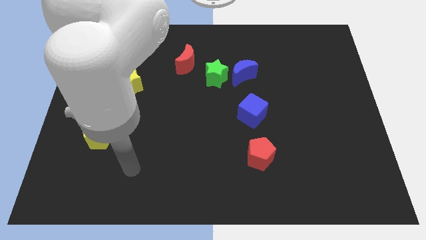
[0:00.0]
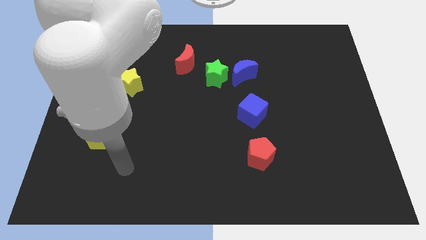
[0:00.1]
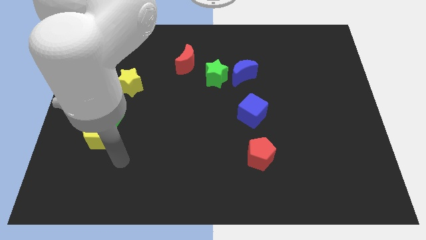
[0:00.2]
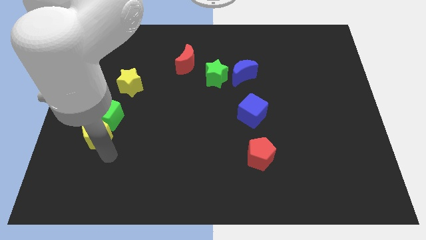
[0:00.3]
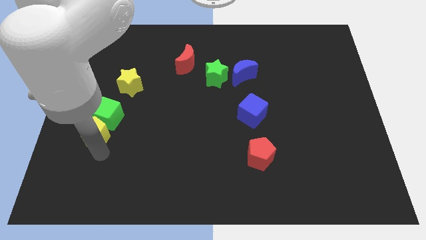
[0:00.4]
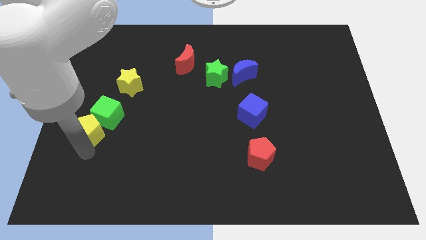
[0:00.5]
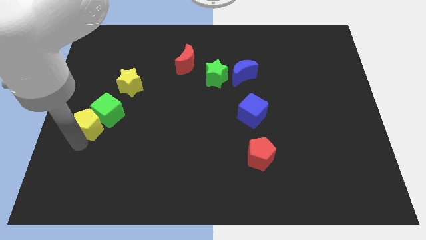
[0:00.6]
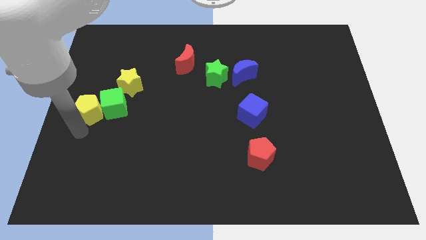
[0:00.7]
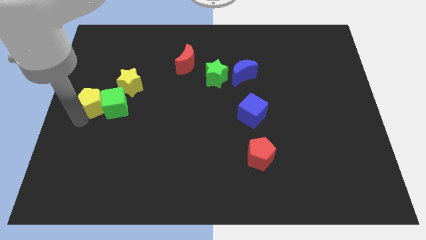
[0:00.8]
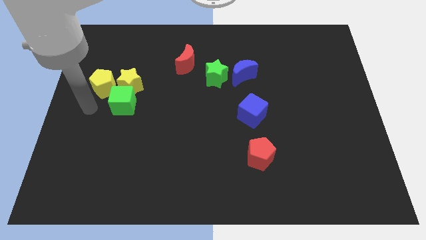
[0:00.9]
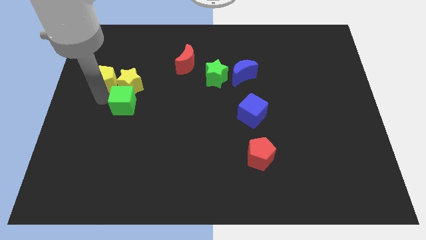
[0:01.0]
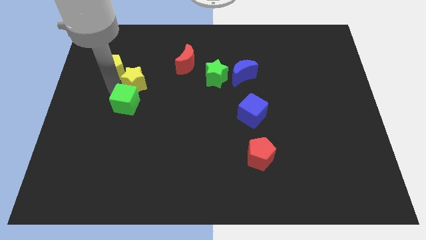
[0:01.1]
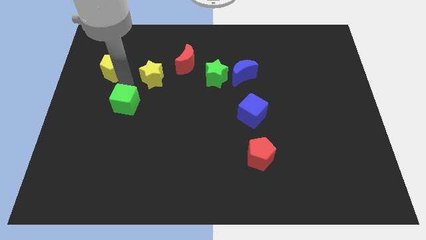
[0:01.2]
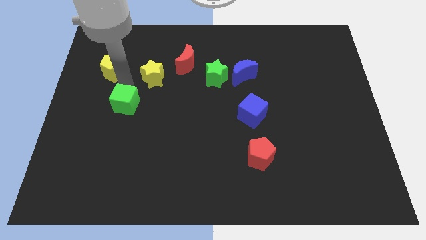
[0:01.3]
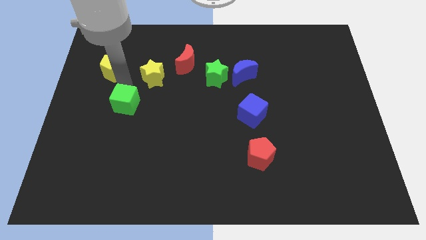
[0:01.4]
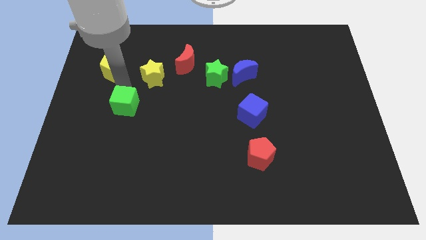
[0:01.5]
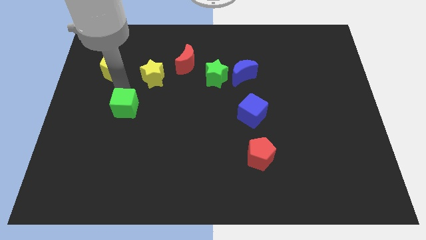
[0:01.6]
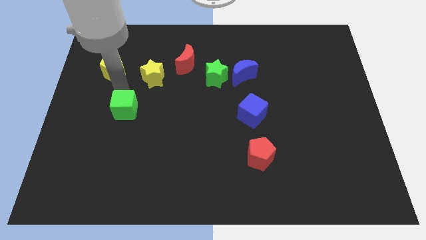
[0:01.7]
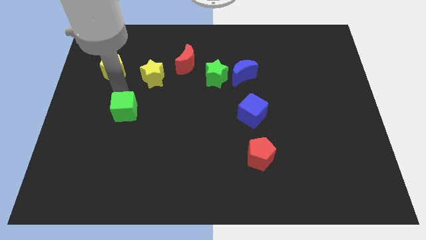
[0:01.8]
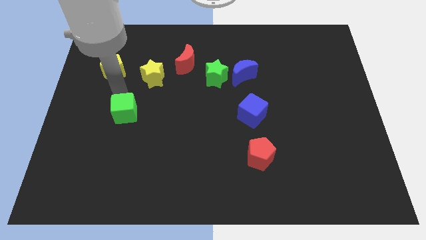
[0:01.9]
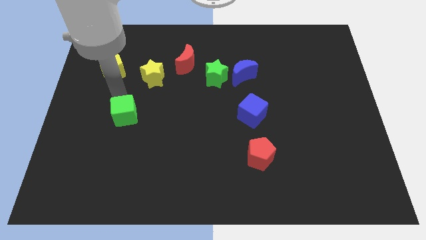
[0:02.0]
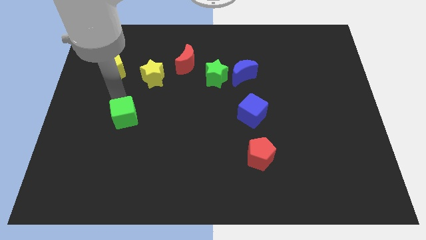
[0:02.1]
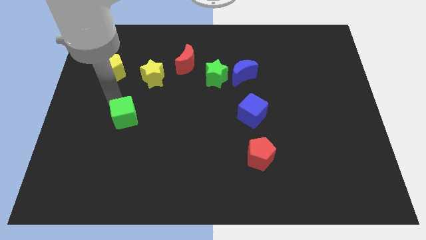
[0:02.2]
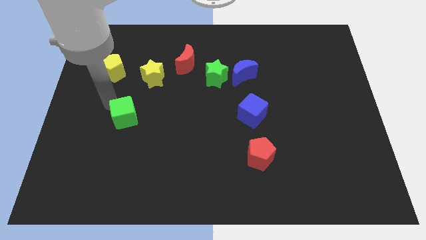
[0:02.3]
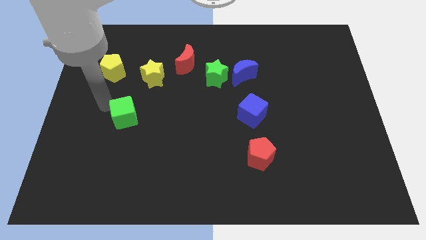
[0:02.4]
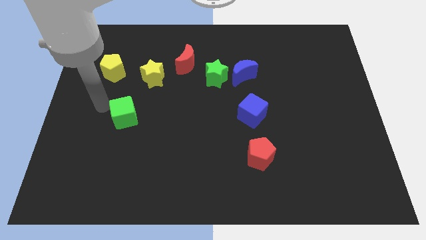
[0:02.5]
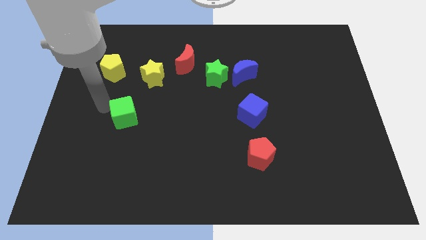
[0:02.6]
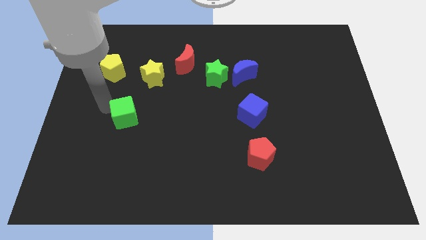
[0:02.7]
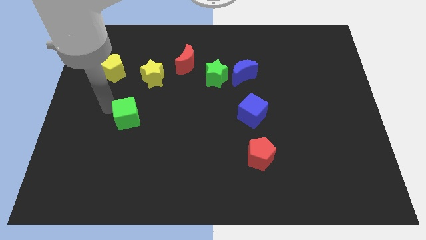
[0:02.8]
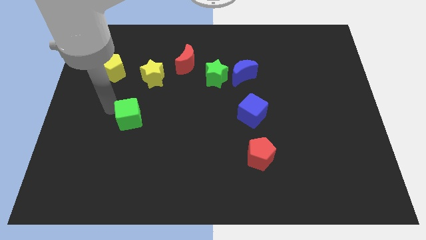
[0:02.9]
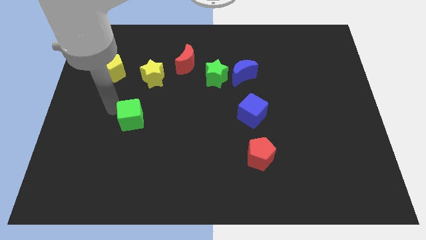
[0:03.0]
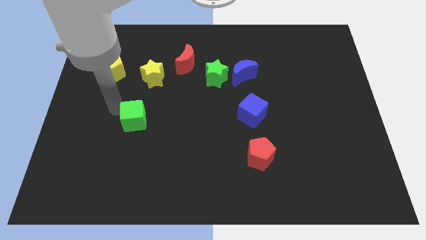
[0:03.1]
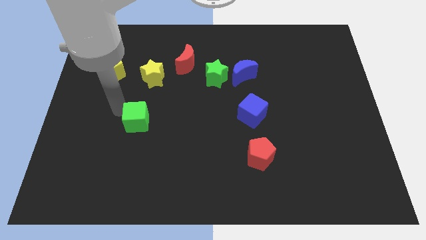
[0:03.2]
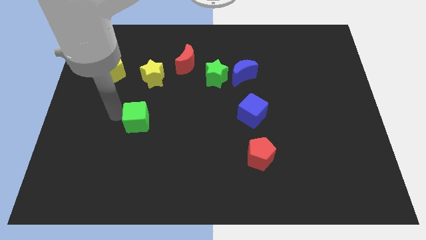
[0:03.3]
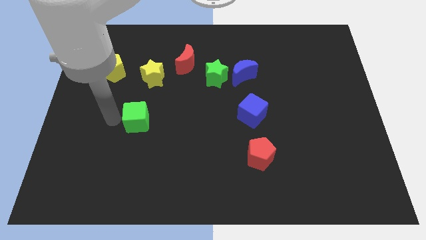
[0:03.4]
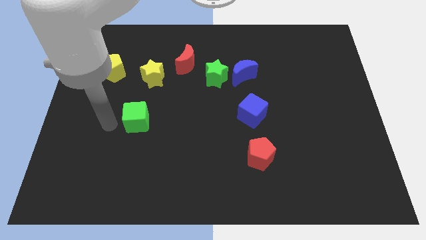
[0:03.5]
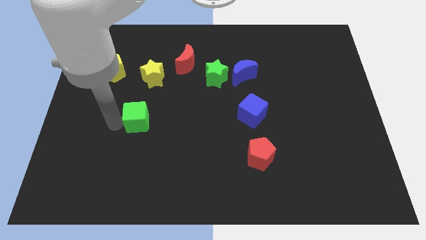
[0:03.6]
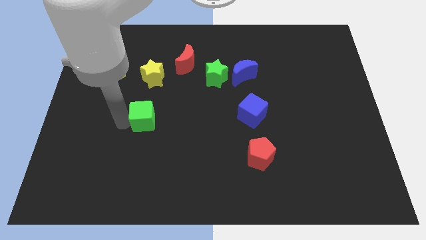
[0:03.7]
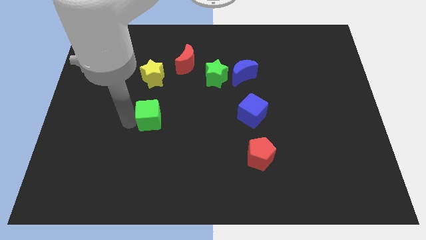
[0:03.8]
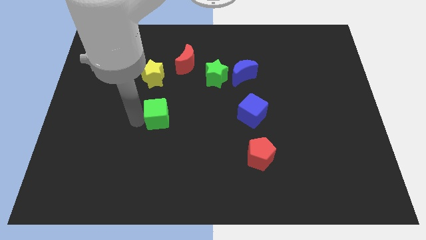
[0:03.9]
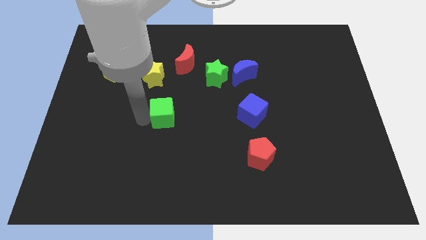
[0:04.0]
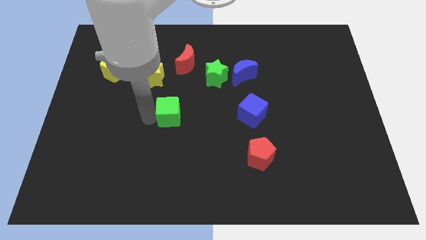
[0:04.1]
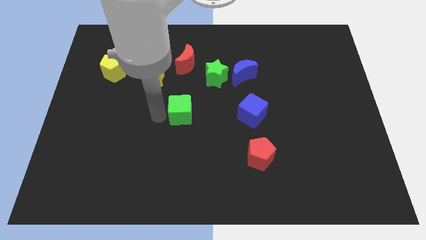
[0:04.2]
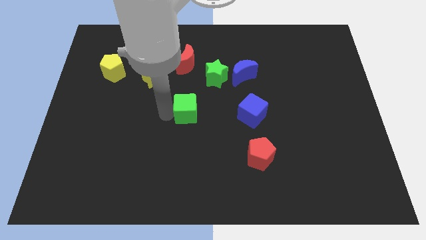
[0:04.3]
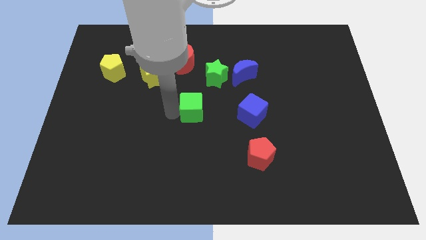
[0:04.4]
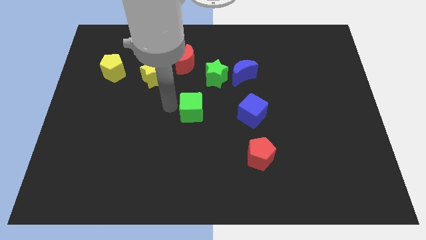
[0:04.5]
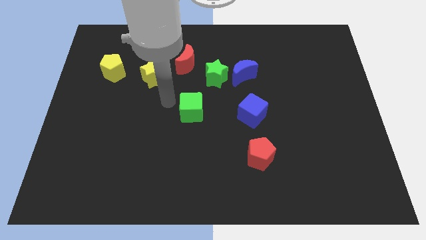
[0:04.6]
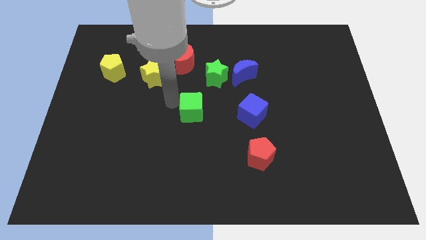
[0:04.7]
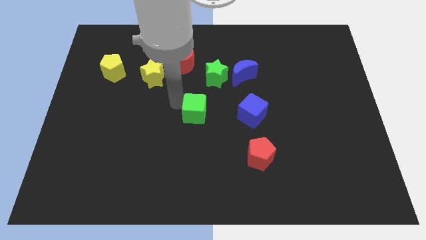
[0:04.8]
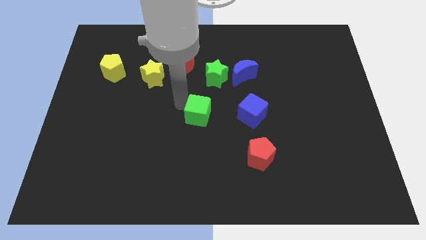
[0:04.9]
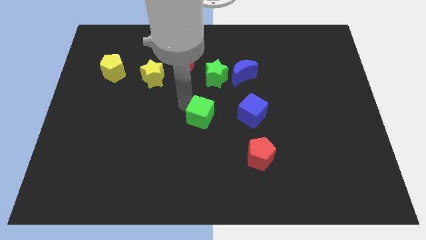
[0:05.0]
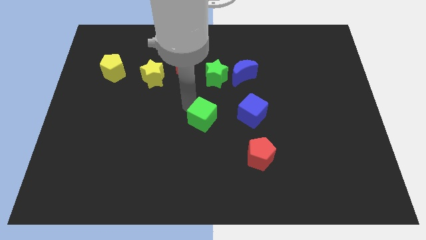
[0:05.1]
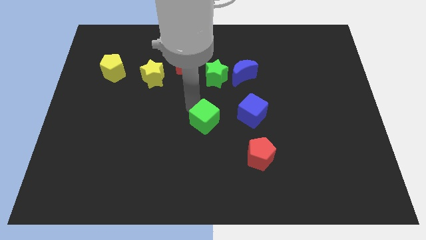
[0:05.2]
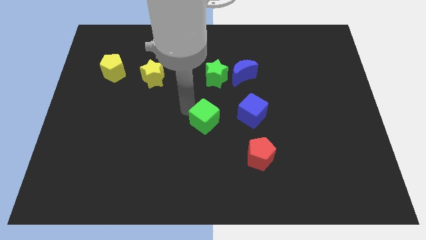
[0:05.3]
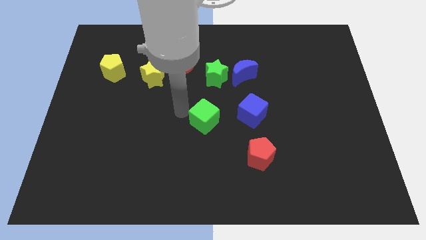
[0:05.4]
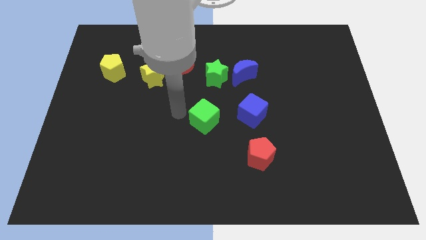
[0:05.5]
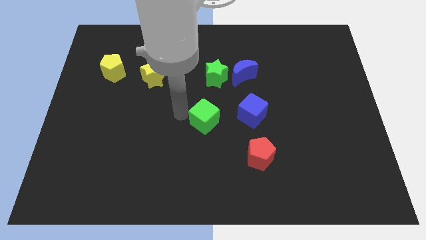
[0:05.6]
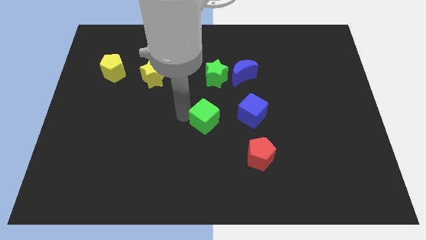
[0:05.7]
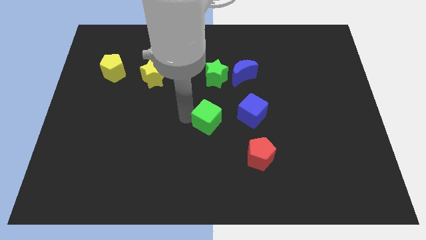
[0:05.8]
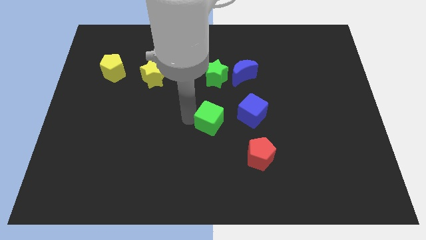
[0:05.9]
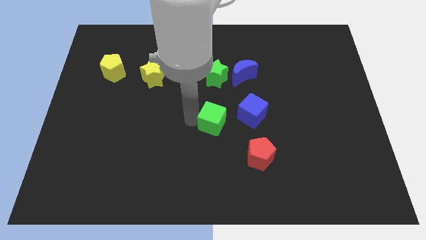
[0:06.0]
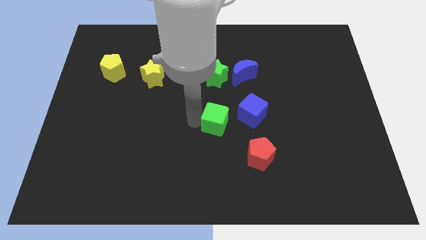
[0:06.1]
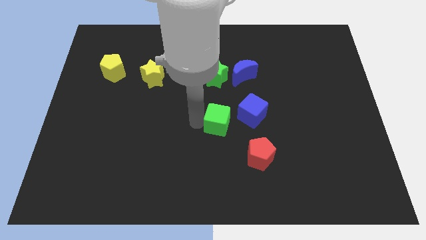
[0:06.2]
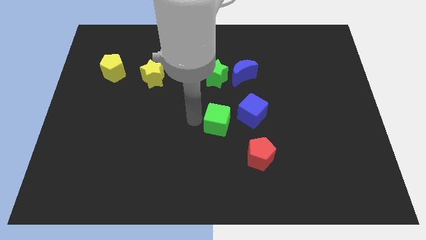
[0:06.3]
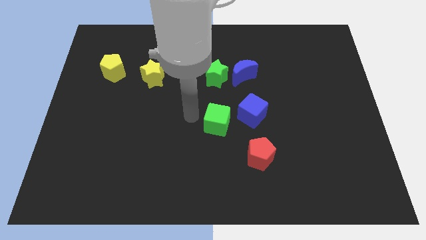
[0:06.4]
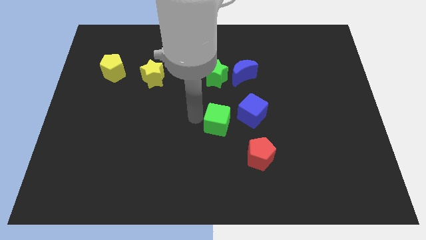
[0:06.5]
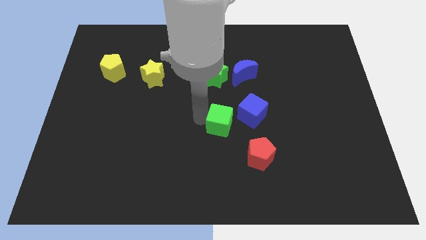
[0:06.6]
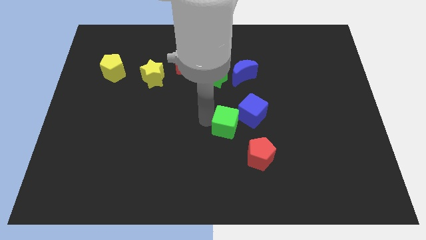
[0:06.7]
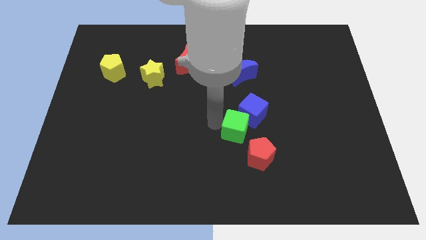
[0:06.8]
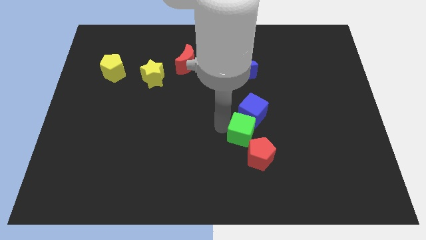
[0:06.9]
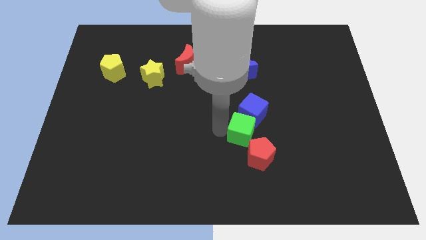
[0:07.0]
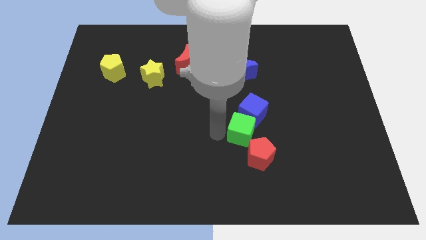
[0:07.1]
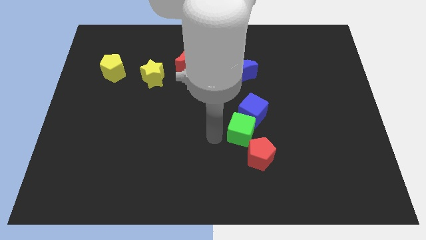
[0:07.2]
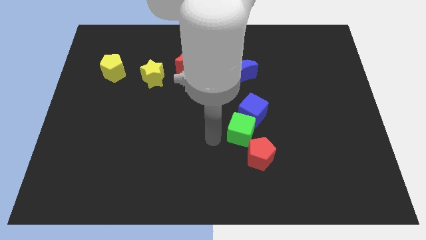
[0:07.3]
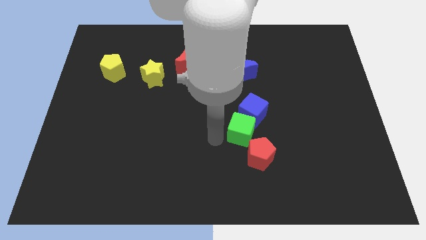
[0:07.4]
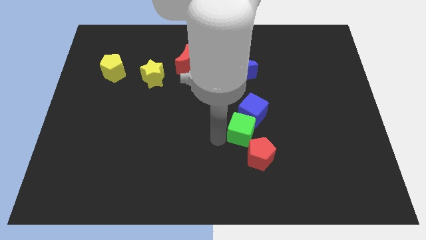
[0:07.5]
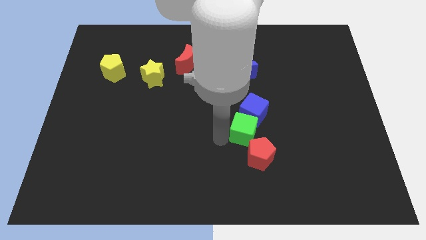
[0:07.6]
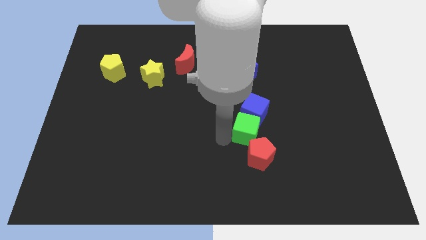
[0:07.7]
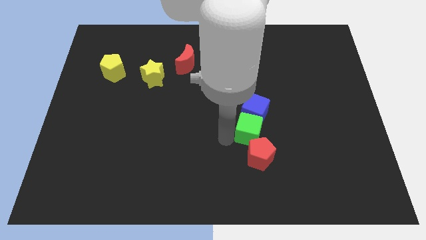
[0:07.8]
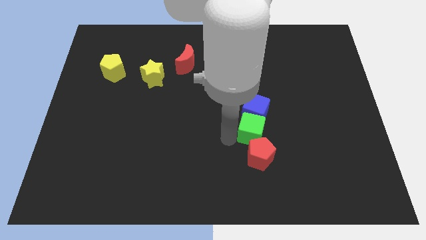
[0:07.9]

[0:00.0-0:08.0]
put the green cube diagonally down and to the right of the blue cube
